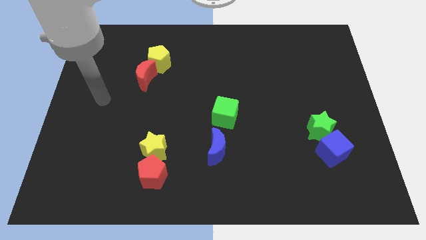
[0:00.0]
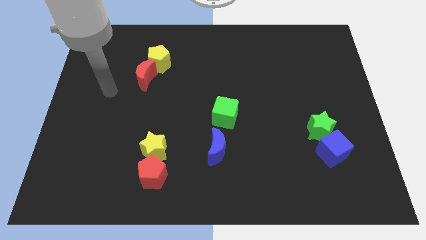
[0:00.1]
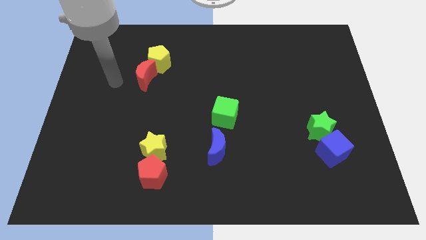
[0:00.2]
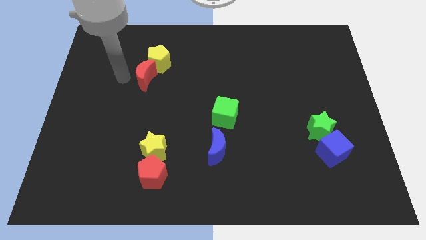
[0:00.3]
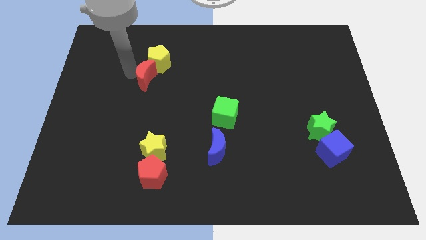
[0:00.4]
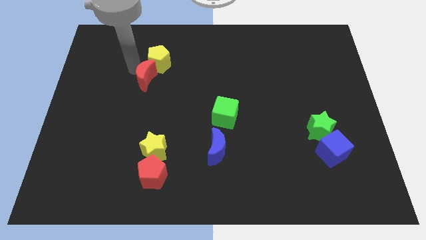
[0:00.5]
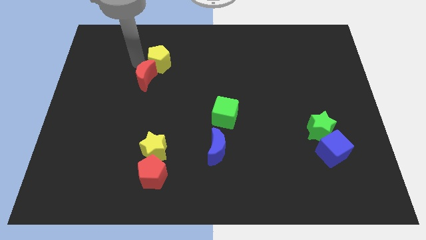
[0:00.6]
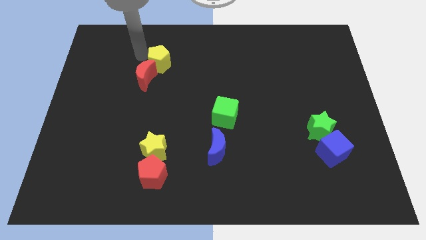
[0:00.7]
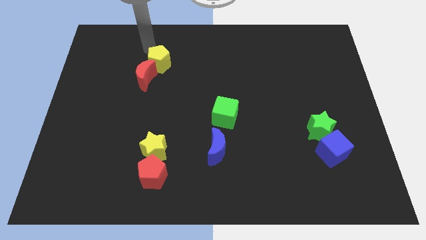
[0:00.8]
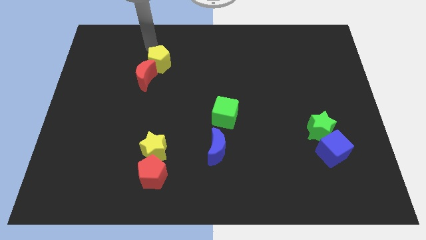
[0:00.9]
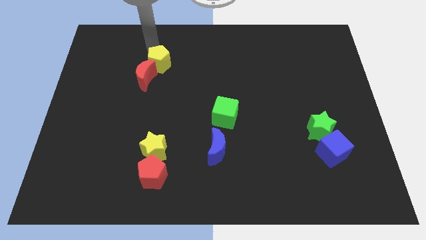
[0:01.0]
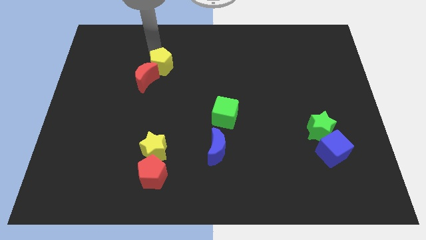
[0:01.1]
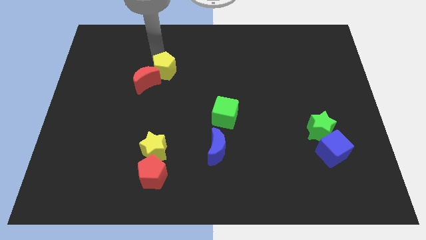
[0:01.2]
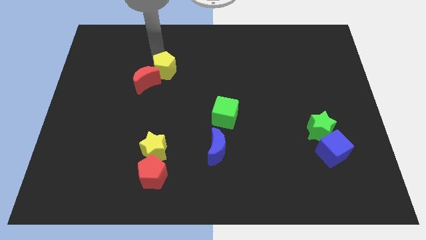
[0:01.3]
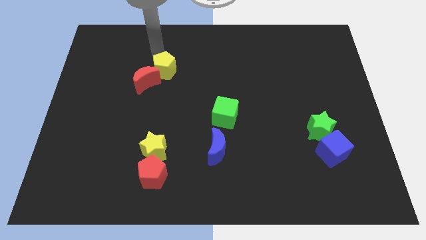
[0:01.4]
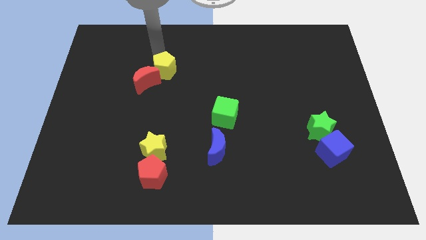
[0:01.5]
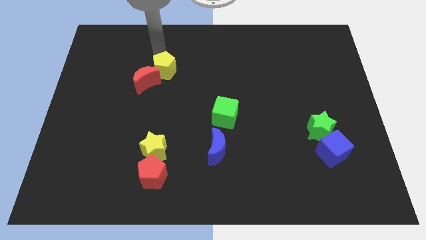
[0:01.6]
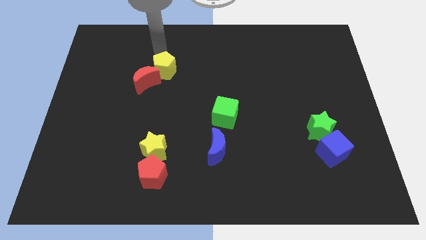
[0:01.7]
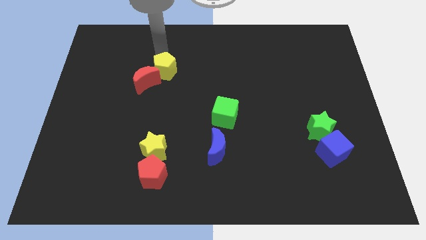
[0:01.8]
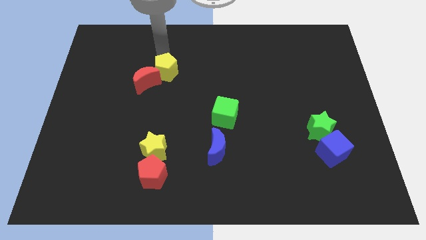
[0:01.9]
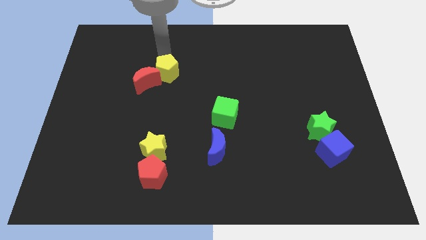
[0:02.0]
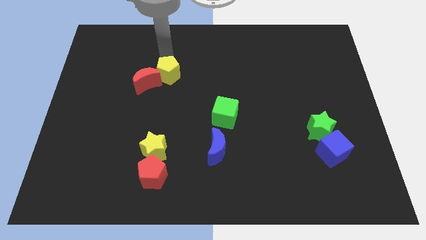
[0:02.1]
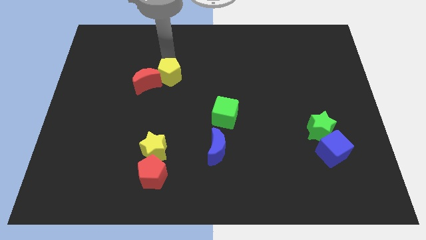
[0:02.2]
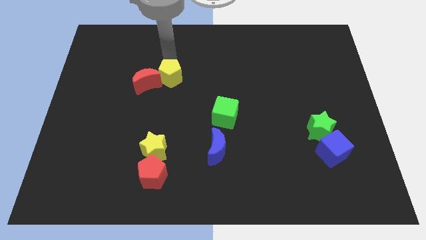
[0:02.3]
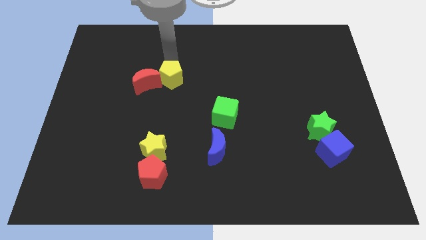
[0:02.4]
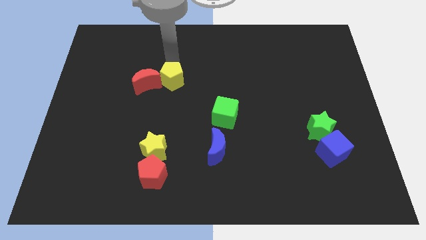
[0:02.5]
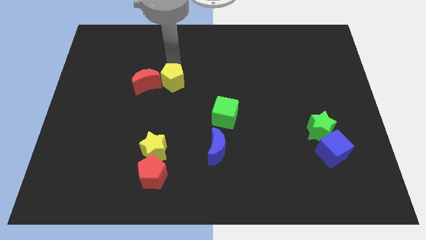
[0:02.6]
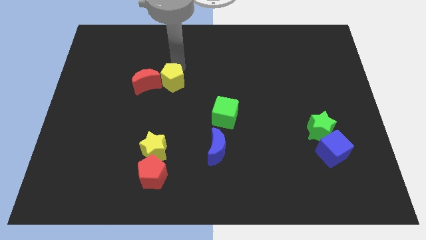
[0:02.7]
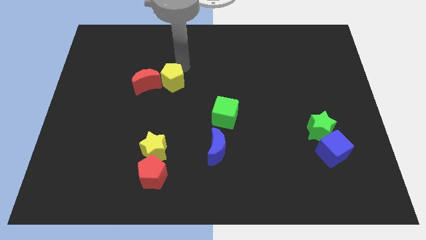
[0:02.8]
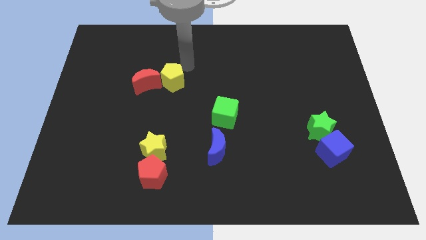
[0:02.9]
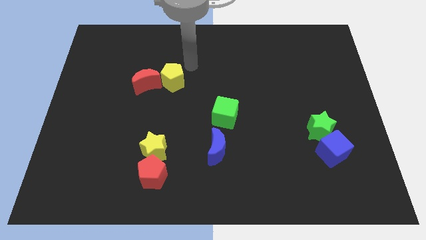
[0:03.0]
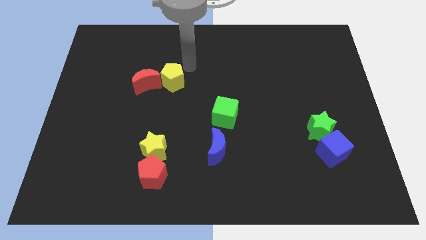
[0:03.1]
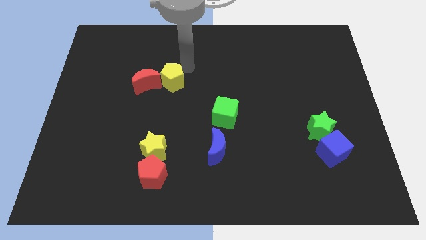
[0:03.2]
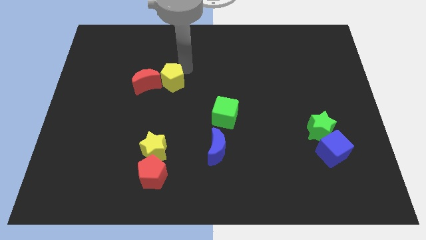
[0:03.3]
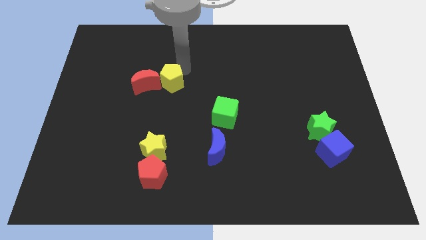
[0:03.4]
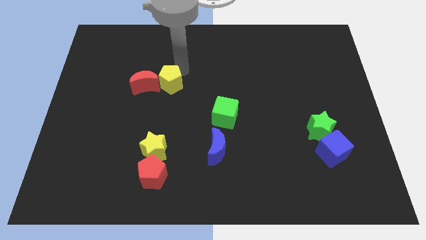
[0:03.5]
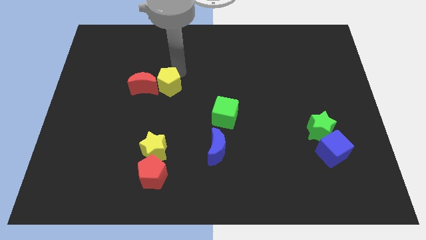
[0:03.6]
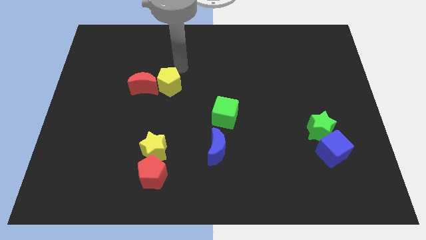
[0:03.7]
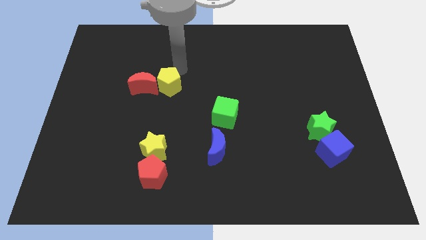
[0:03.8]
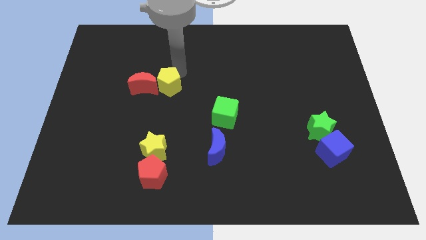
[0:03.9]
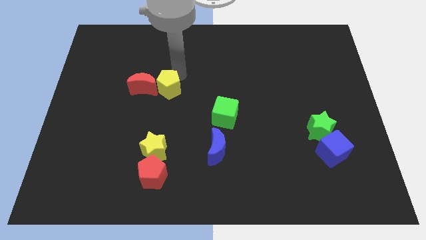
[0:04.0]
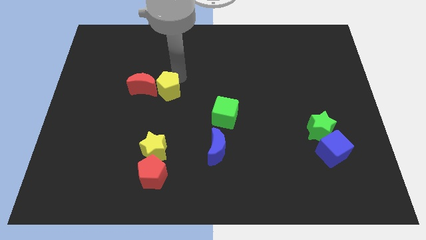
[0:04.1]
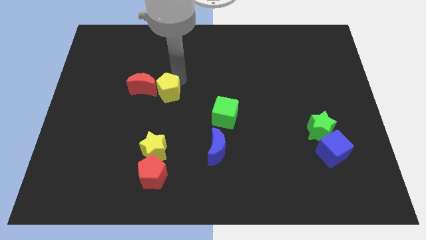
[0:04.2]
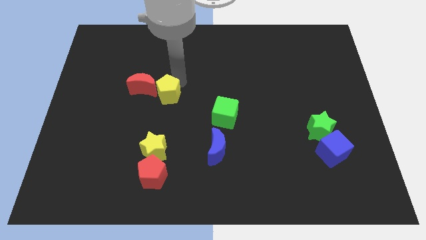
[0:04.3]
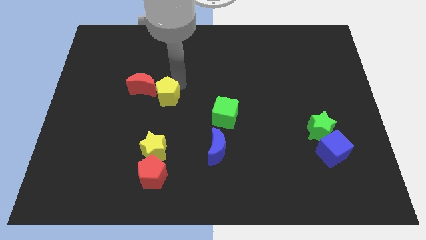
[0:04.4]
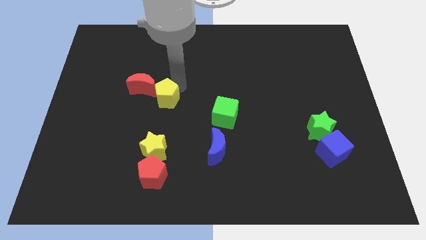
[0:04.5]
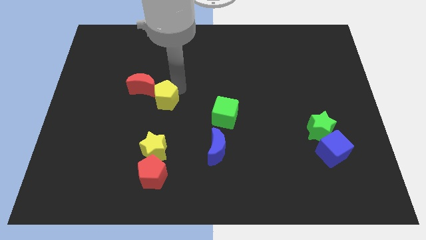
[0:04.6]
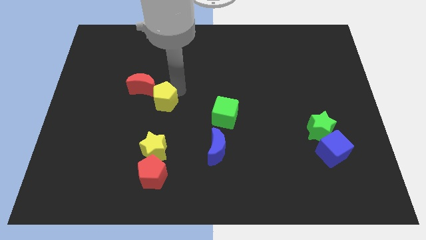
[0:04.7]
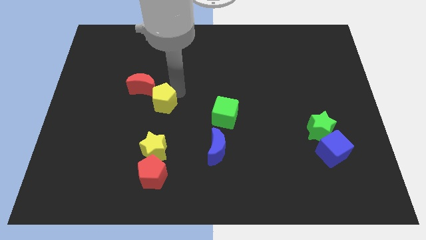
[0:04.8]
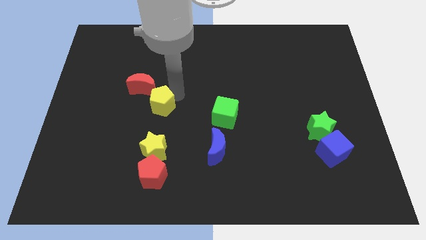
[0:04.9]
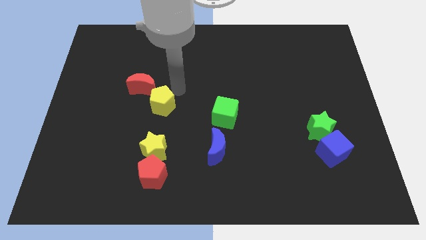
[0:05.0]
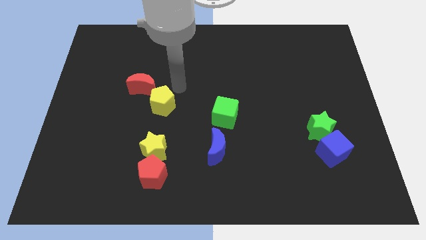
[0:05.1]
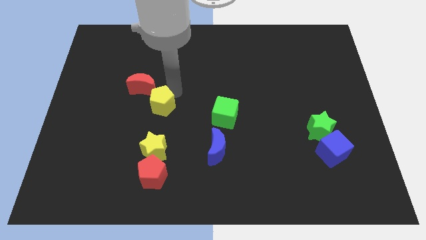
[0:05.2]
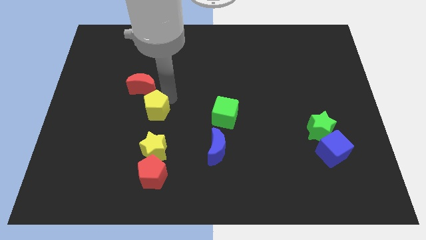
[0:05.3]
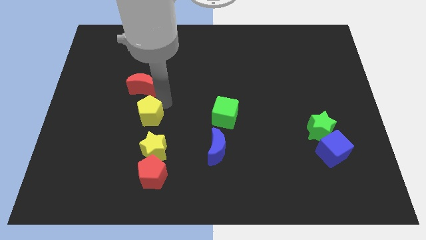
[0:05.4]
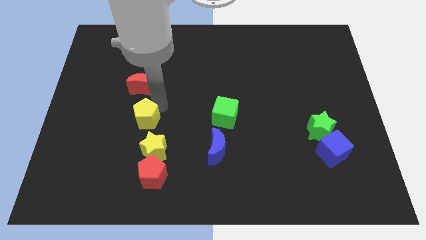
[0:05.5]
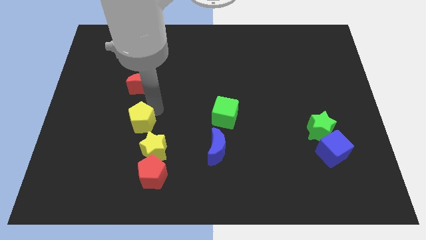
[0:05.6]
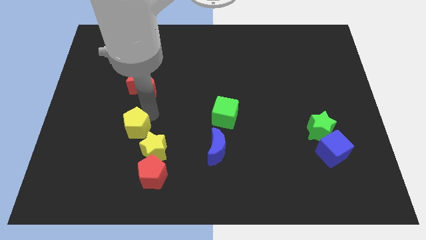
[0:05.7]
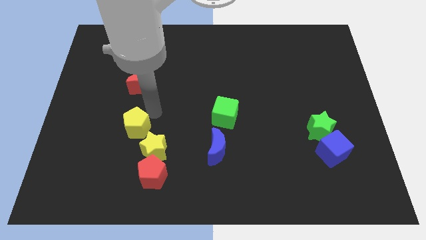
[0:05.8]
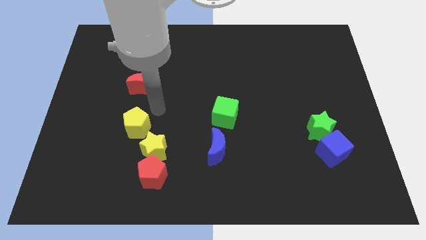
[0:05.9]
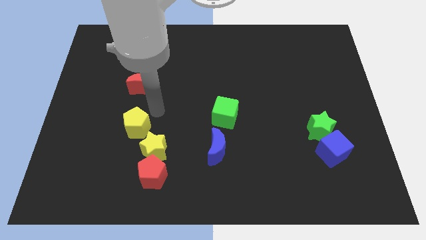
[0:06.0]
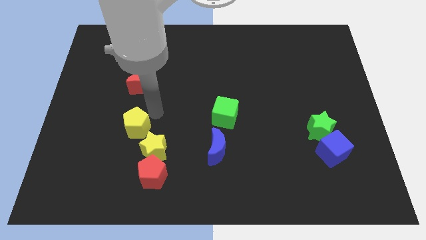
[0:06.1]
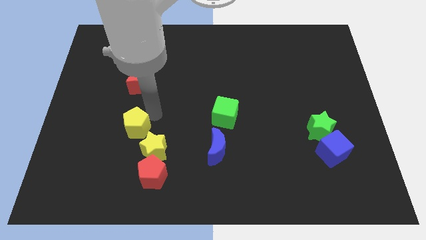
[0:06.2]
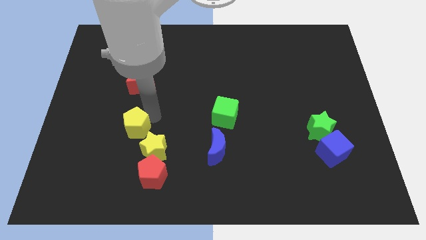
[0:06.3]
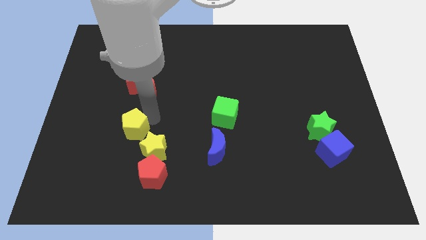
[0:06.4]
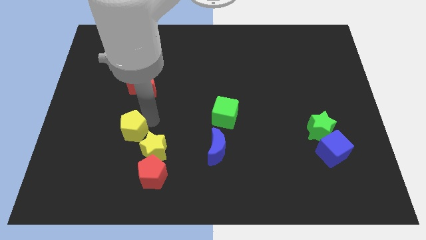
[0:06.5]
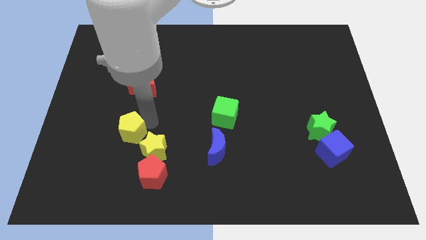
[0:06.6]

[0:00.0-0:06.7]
push the yellow pentagon left of the yellow star
